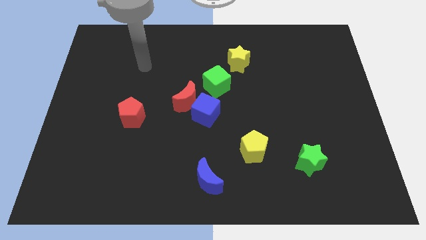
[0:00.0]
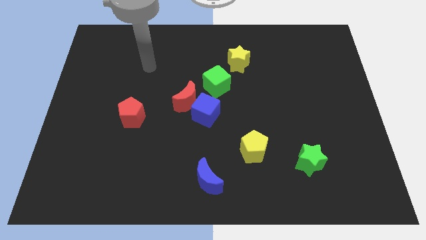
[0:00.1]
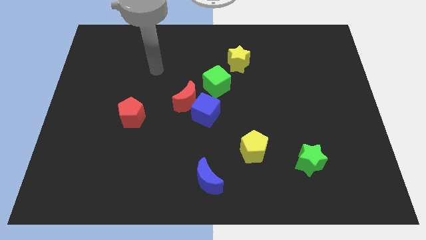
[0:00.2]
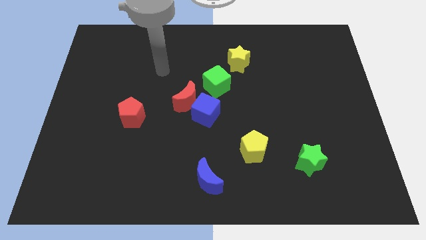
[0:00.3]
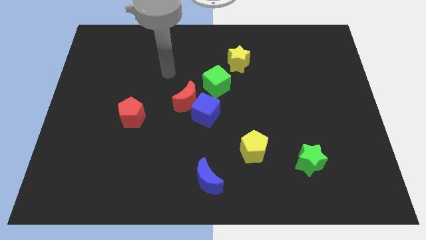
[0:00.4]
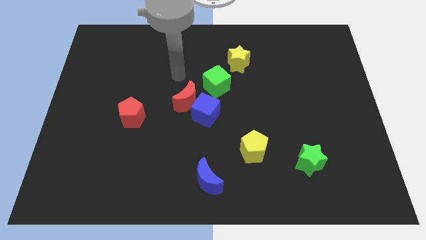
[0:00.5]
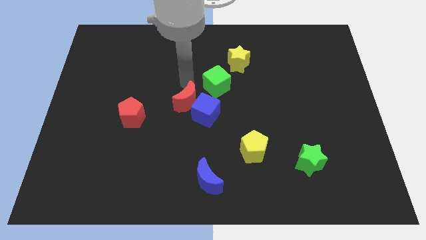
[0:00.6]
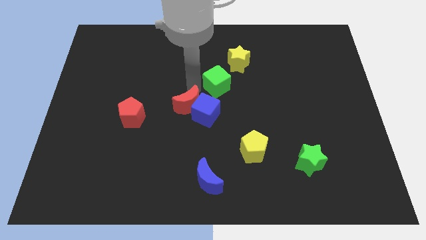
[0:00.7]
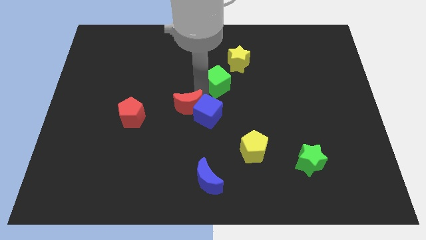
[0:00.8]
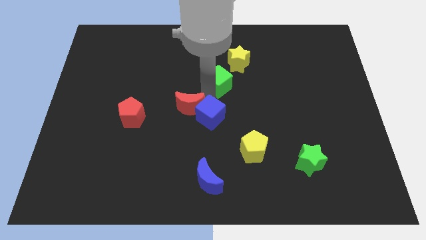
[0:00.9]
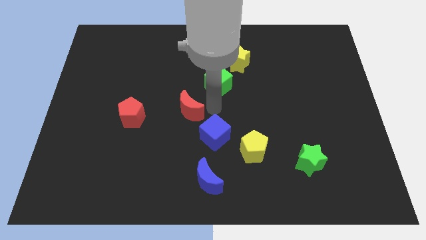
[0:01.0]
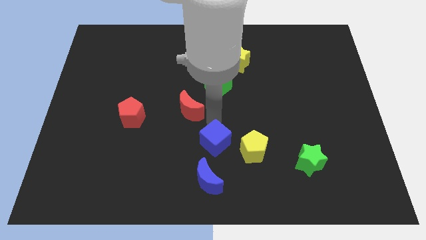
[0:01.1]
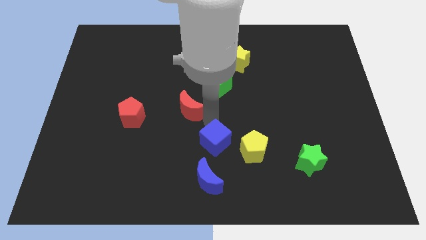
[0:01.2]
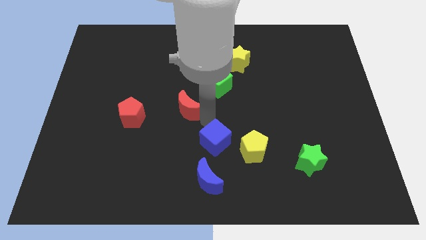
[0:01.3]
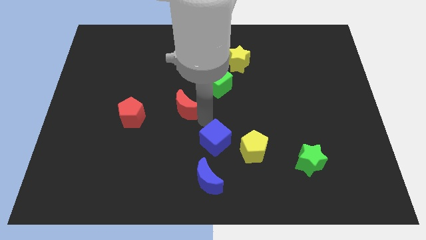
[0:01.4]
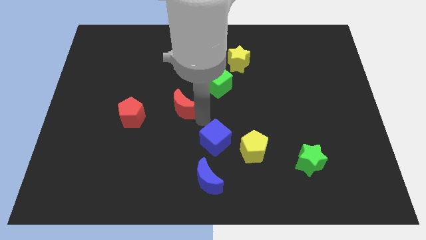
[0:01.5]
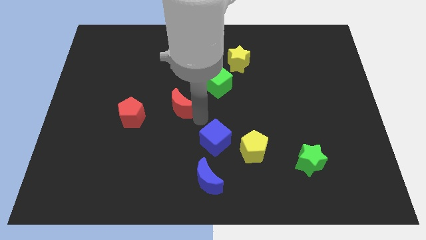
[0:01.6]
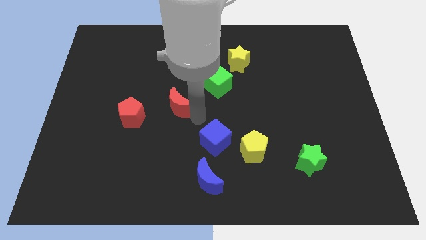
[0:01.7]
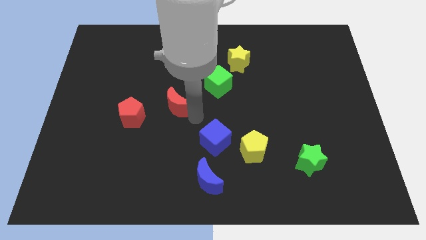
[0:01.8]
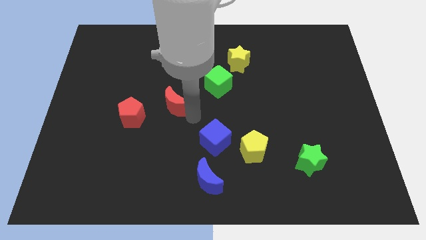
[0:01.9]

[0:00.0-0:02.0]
move the red moon away from the blue cube and green cube

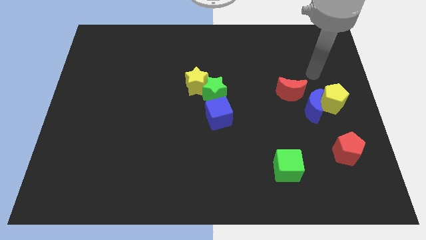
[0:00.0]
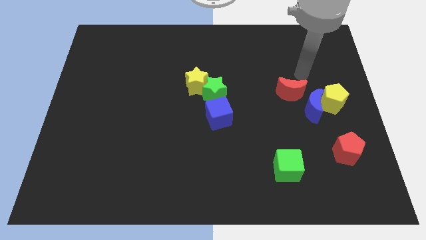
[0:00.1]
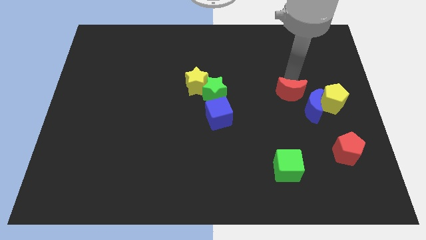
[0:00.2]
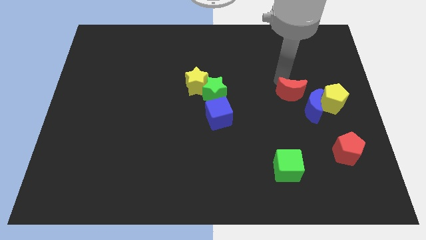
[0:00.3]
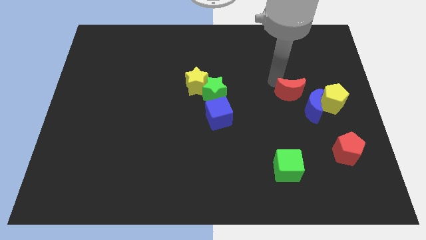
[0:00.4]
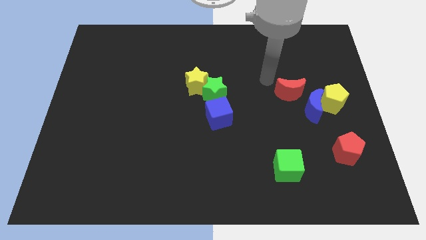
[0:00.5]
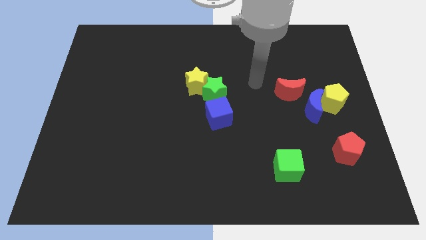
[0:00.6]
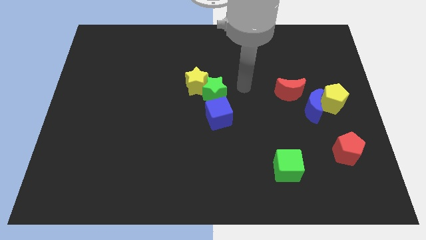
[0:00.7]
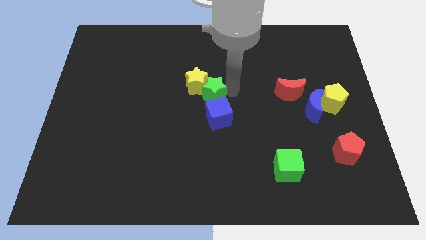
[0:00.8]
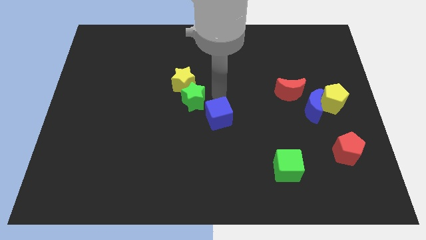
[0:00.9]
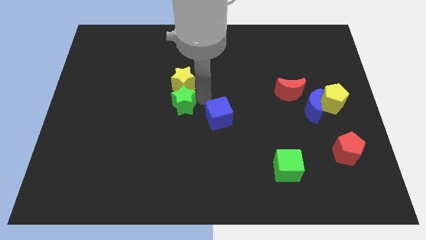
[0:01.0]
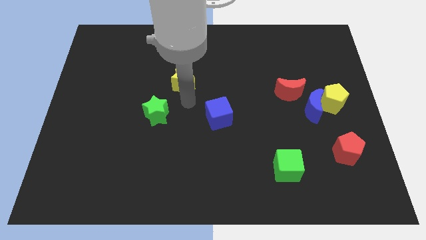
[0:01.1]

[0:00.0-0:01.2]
separate the yellow star from the green star

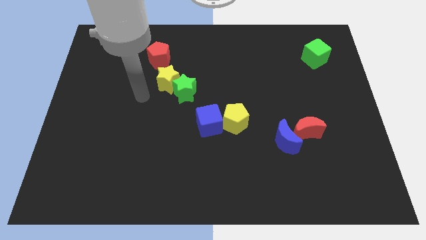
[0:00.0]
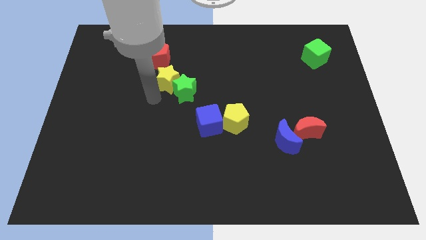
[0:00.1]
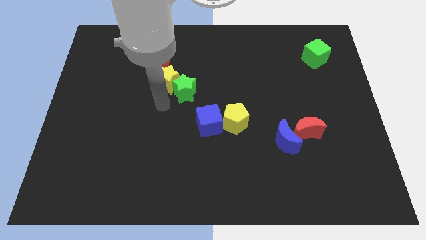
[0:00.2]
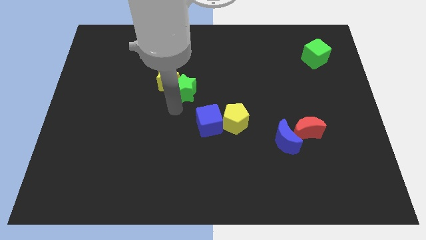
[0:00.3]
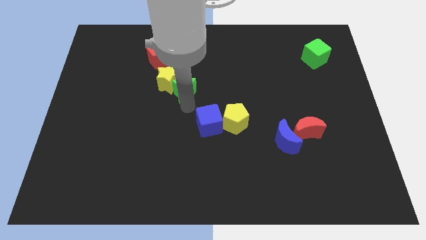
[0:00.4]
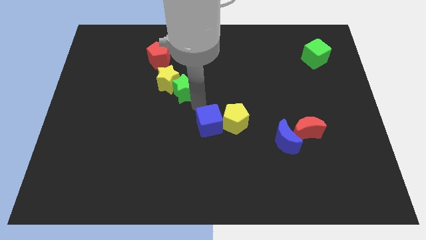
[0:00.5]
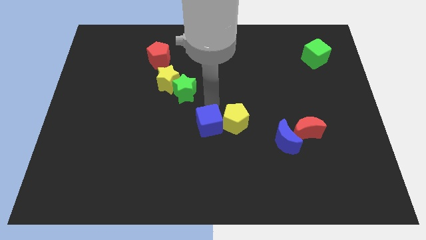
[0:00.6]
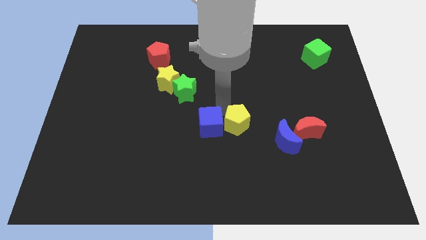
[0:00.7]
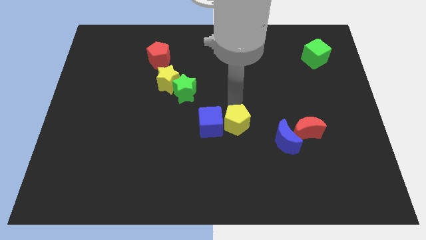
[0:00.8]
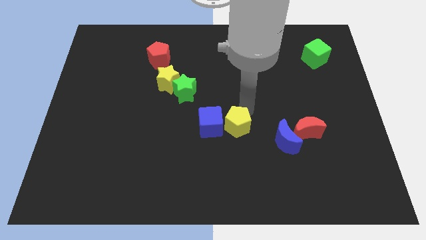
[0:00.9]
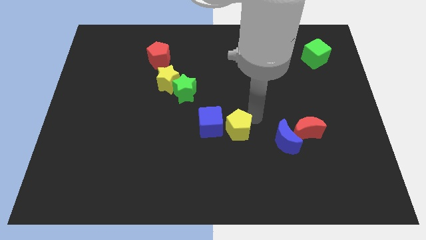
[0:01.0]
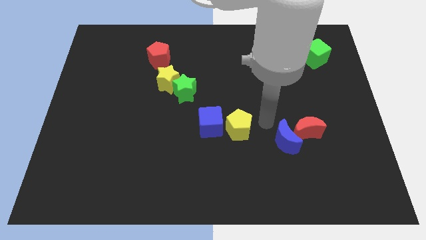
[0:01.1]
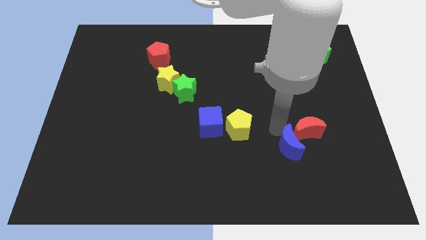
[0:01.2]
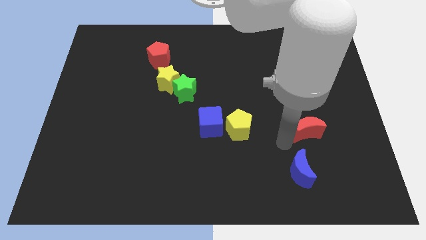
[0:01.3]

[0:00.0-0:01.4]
pull the red moon apart from the blue moon

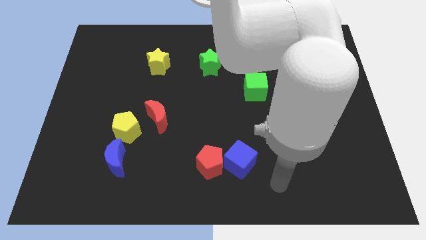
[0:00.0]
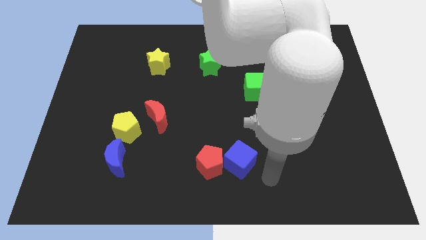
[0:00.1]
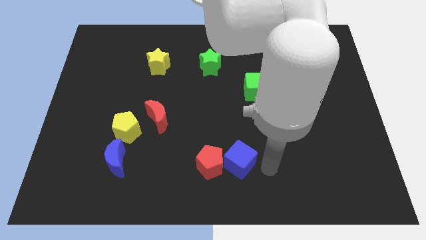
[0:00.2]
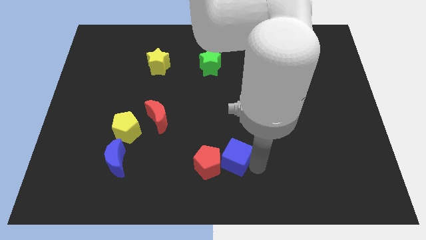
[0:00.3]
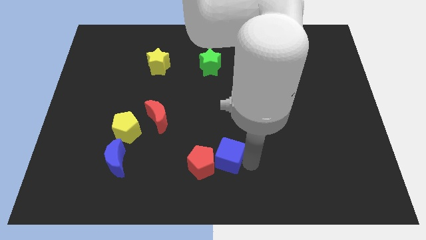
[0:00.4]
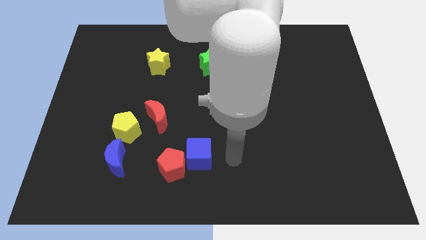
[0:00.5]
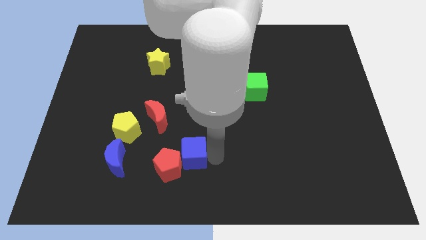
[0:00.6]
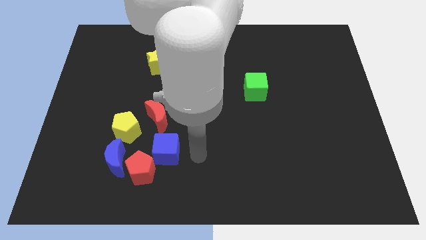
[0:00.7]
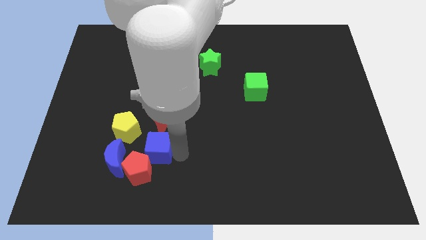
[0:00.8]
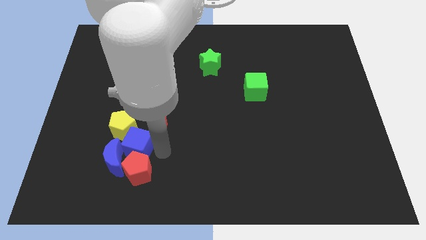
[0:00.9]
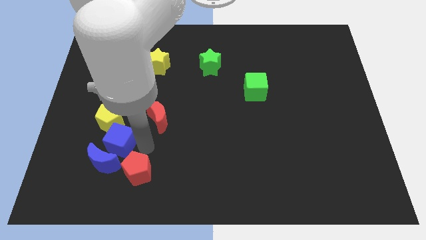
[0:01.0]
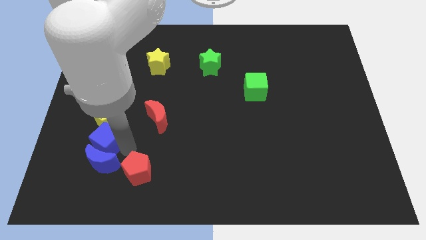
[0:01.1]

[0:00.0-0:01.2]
move the red pentagon away from the blue cube

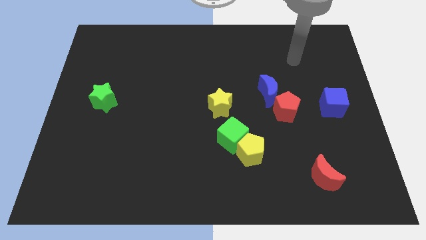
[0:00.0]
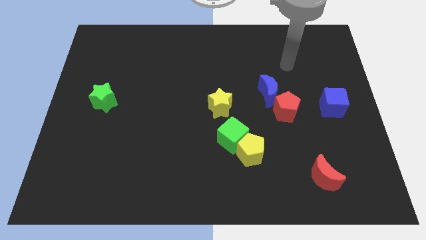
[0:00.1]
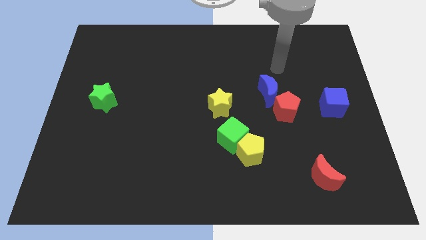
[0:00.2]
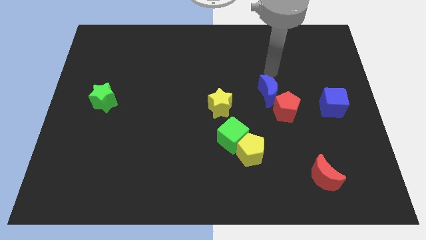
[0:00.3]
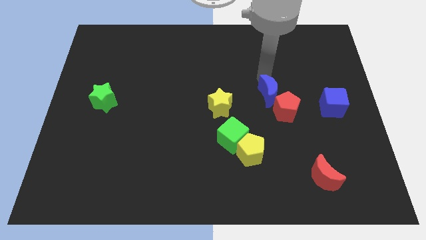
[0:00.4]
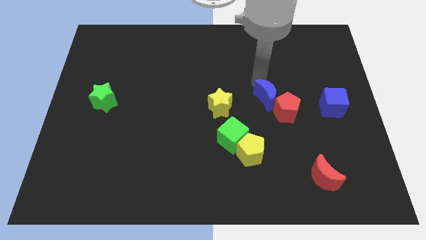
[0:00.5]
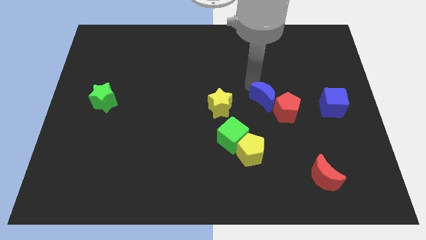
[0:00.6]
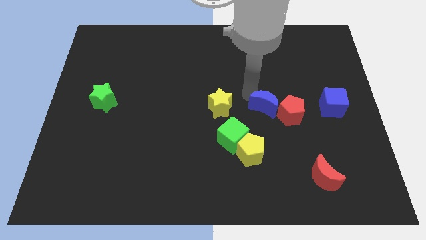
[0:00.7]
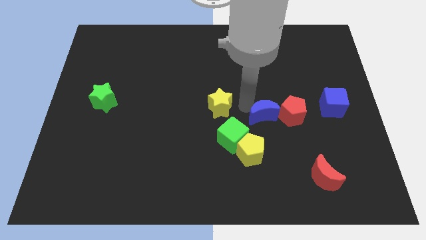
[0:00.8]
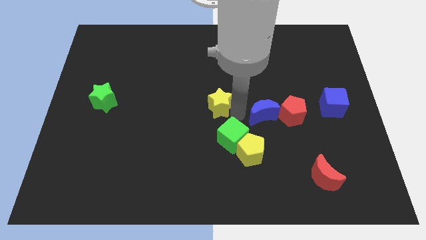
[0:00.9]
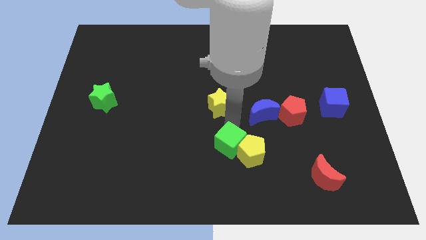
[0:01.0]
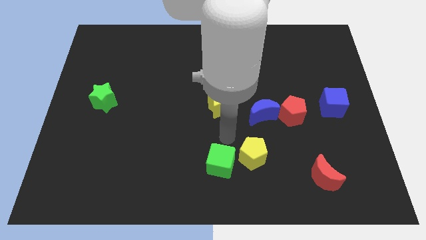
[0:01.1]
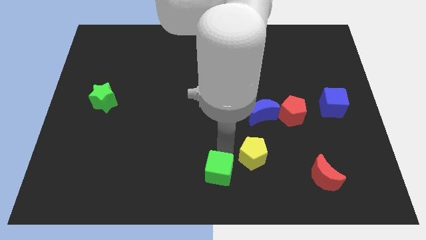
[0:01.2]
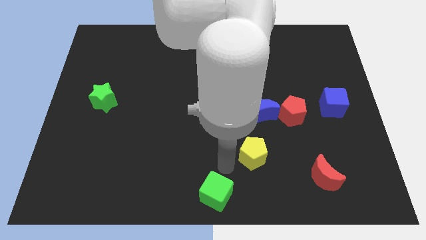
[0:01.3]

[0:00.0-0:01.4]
move the yellow pentagon away from the green cube

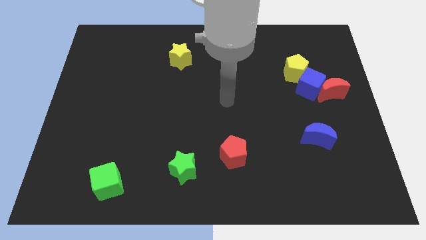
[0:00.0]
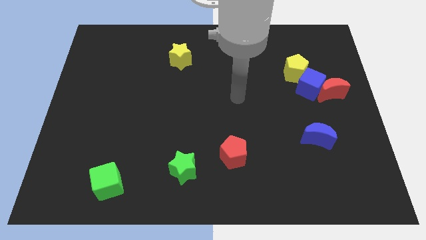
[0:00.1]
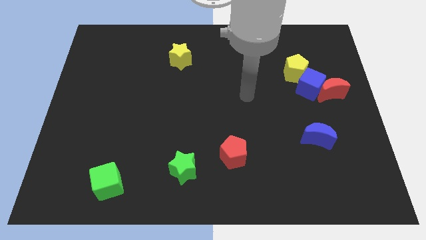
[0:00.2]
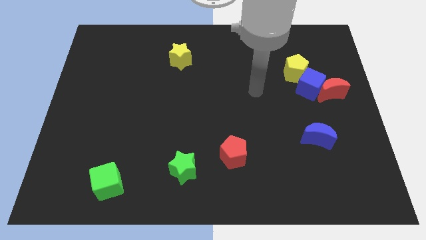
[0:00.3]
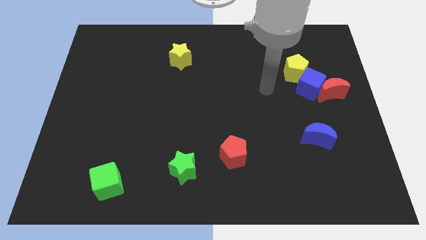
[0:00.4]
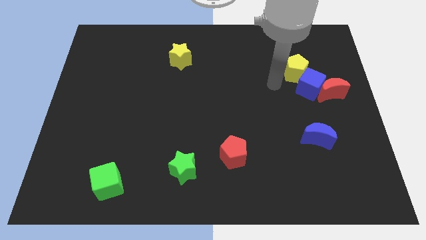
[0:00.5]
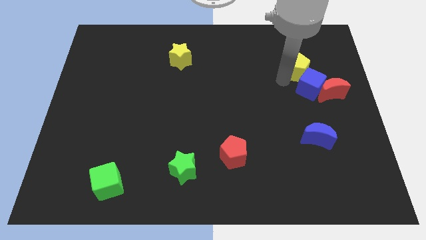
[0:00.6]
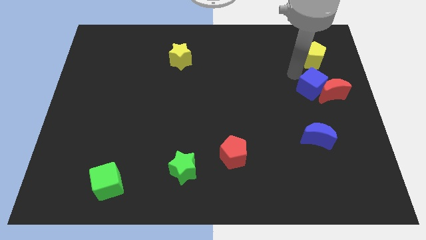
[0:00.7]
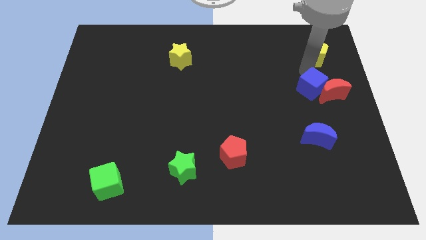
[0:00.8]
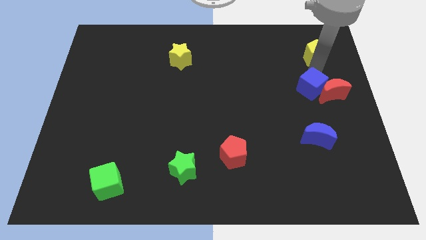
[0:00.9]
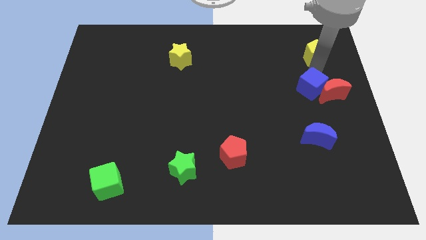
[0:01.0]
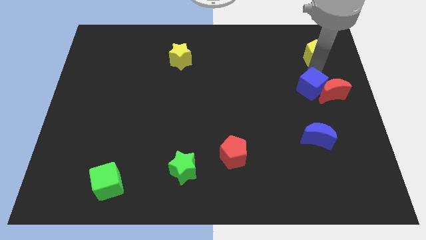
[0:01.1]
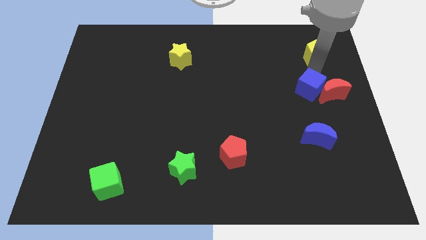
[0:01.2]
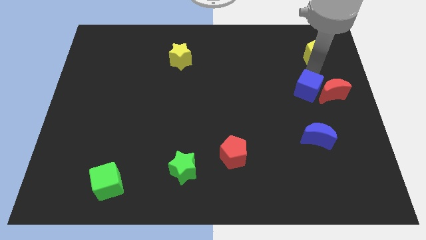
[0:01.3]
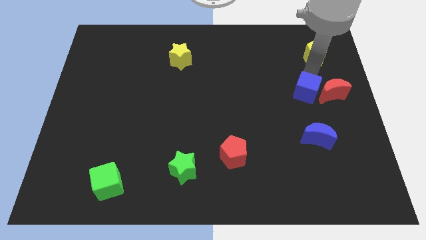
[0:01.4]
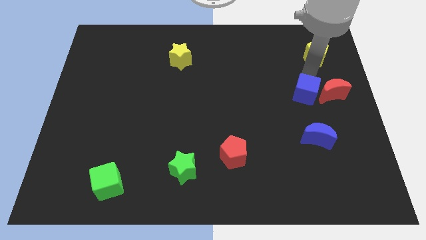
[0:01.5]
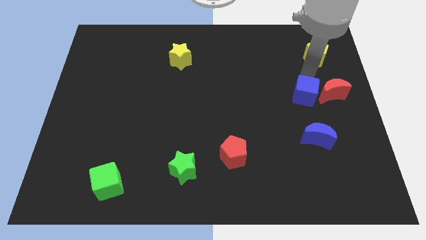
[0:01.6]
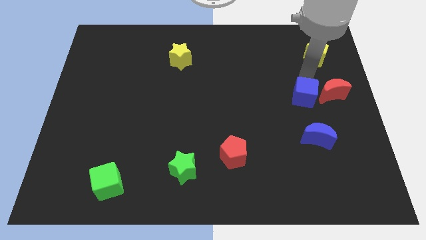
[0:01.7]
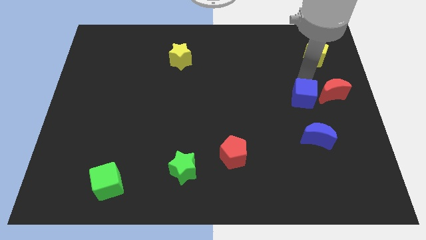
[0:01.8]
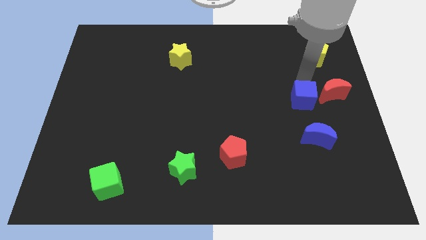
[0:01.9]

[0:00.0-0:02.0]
separate the blue cube from the red moon and yellow pentagon

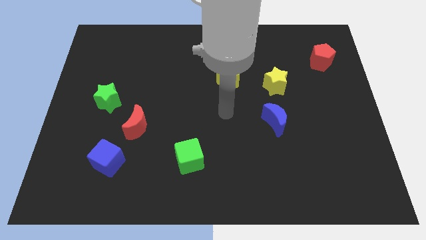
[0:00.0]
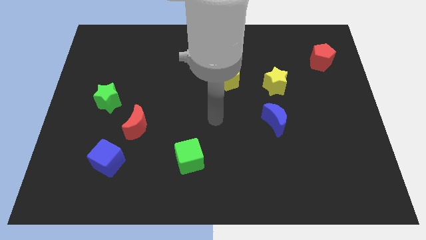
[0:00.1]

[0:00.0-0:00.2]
pull the red moon apart from the blue cube
